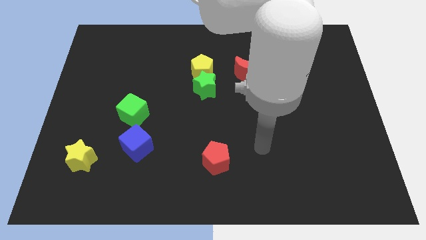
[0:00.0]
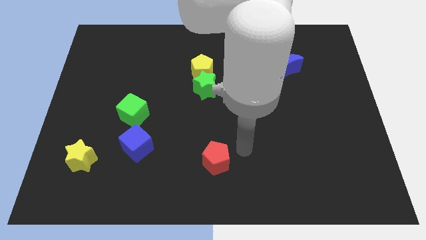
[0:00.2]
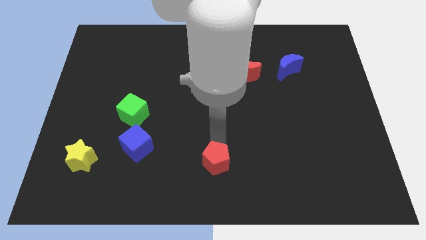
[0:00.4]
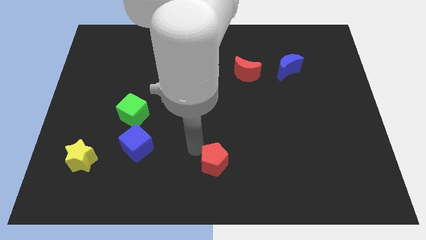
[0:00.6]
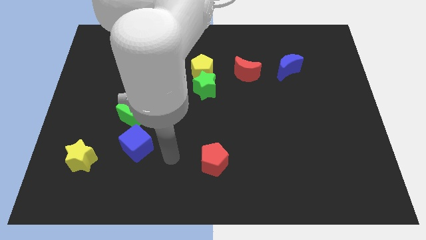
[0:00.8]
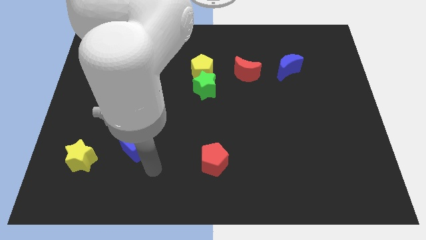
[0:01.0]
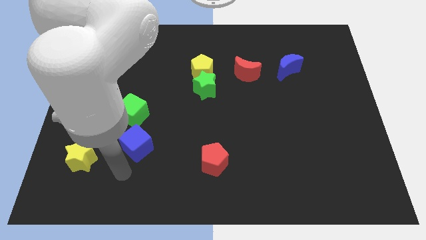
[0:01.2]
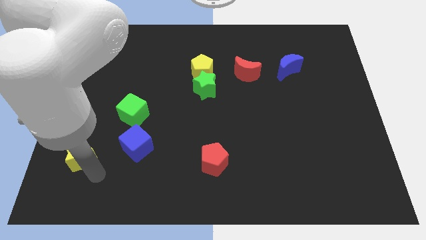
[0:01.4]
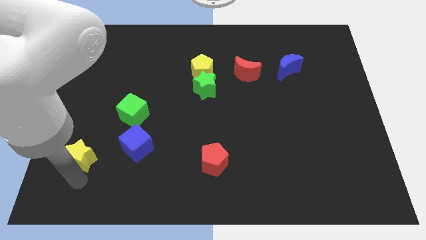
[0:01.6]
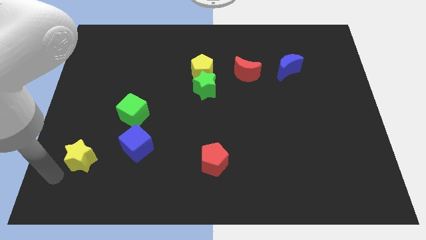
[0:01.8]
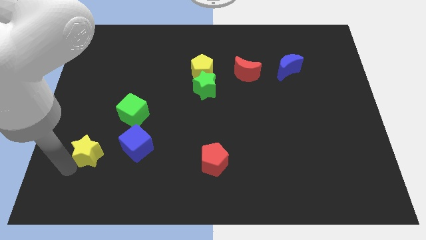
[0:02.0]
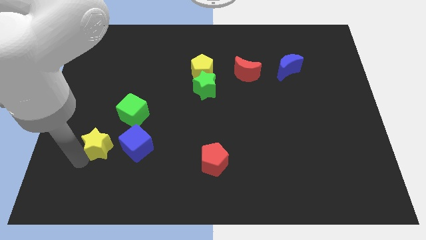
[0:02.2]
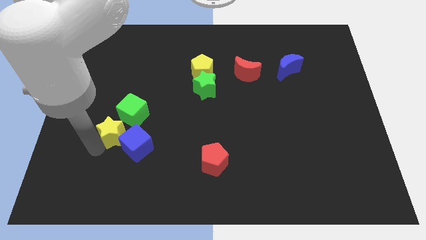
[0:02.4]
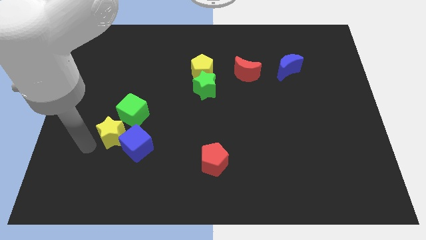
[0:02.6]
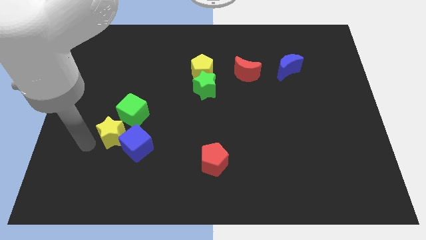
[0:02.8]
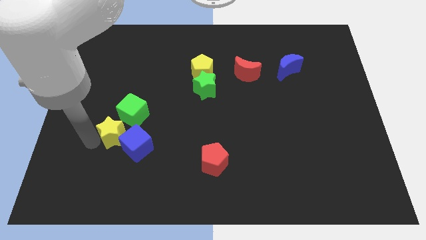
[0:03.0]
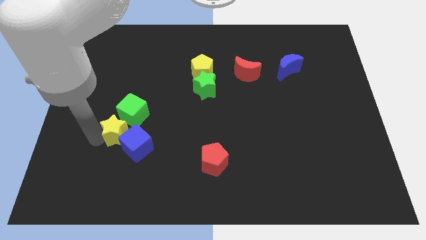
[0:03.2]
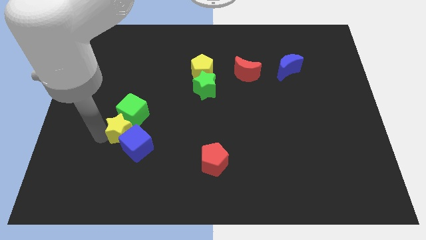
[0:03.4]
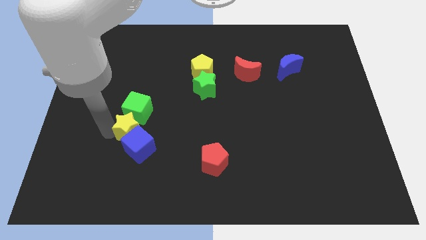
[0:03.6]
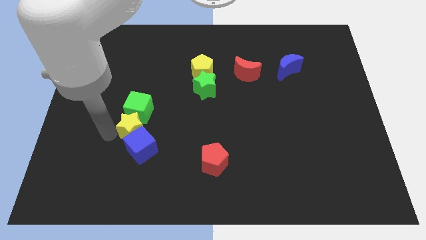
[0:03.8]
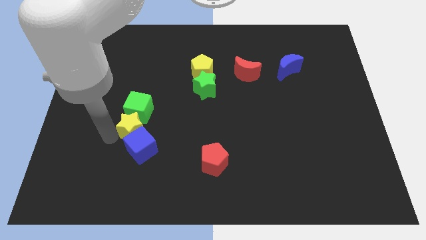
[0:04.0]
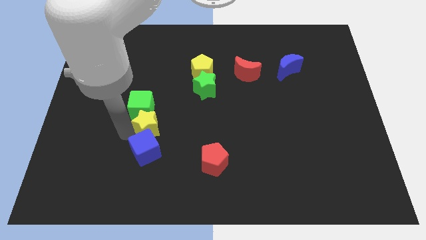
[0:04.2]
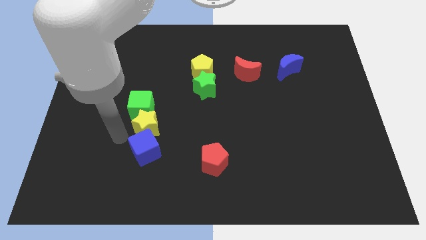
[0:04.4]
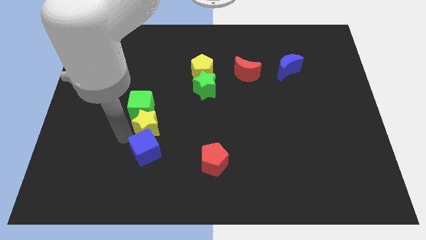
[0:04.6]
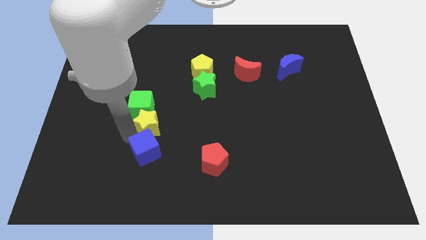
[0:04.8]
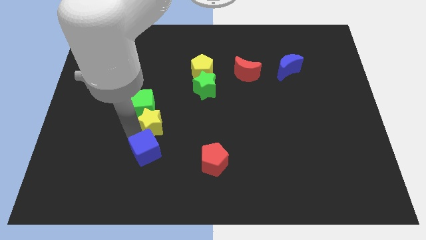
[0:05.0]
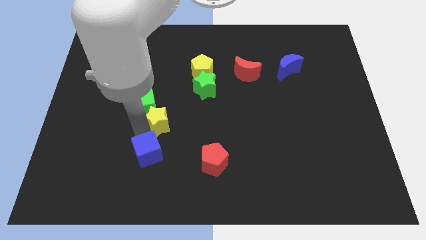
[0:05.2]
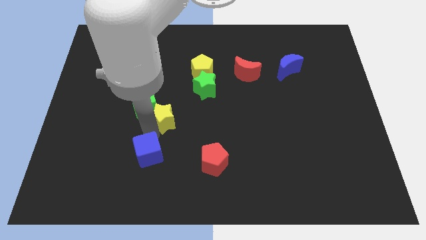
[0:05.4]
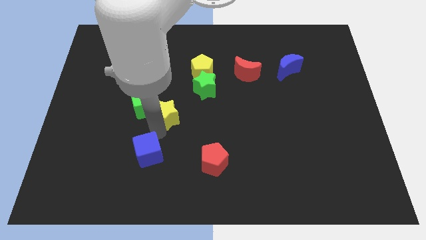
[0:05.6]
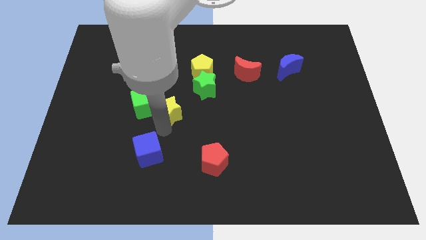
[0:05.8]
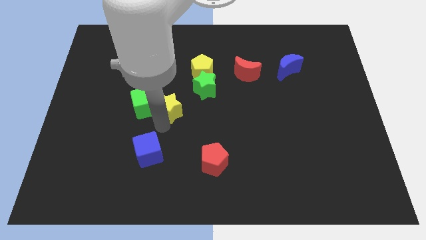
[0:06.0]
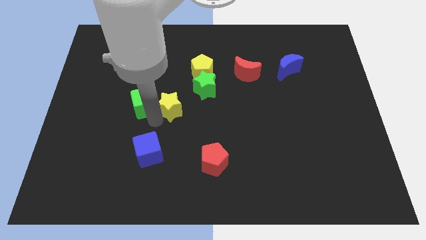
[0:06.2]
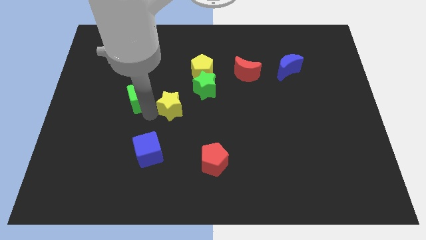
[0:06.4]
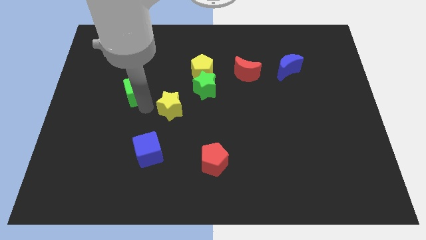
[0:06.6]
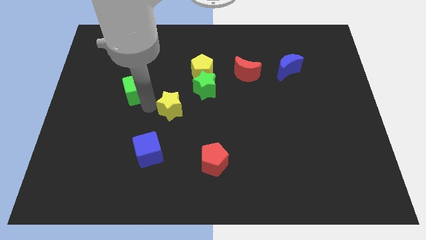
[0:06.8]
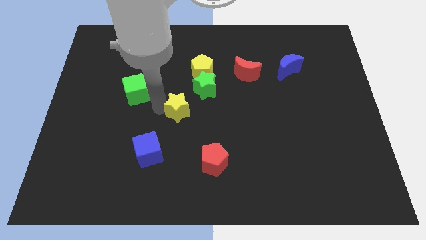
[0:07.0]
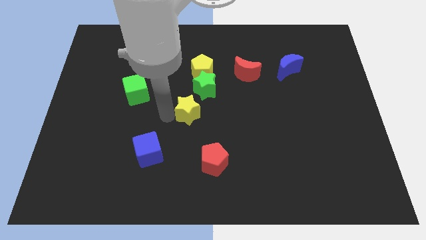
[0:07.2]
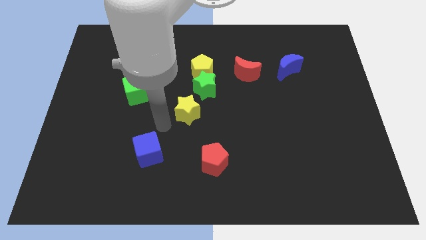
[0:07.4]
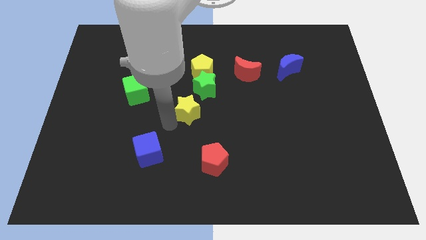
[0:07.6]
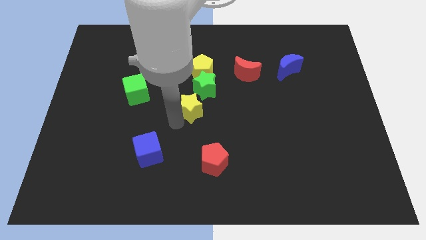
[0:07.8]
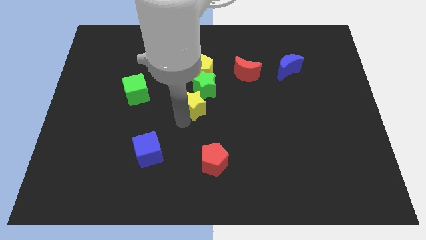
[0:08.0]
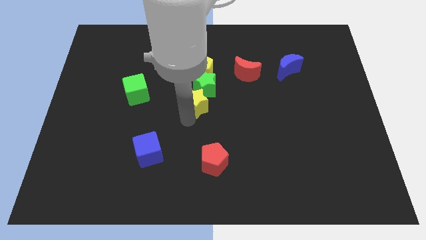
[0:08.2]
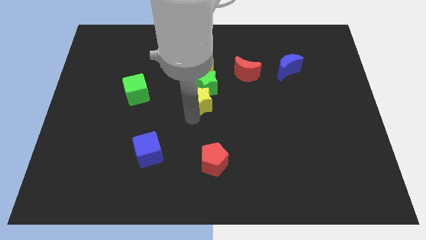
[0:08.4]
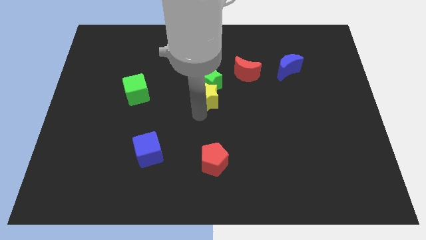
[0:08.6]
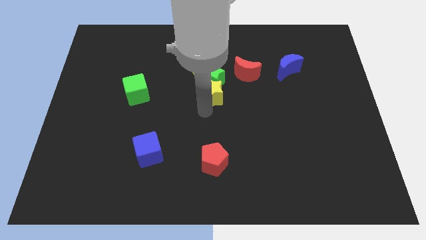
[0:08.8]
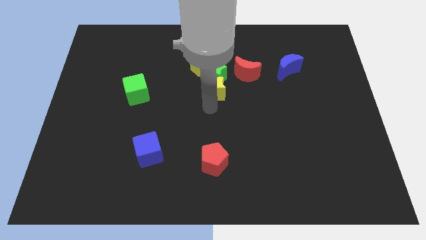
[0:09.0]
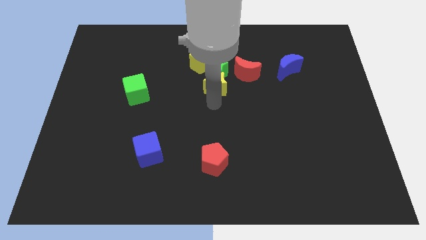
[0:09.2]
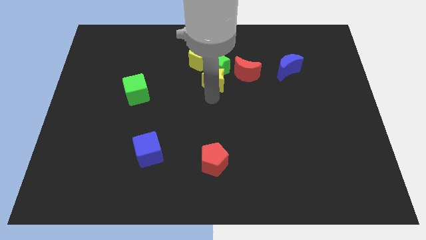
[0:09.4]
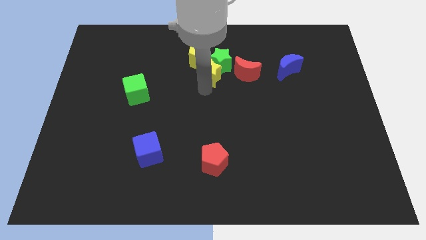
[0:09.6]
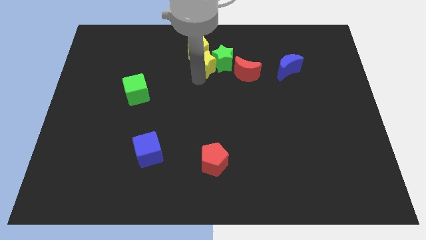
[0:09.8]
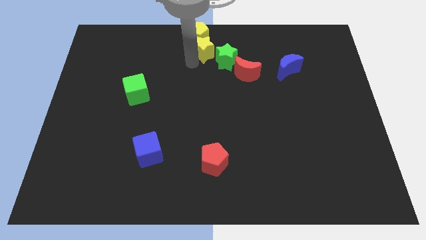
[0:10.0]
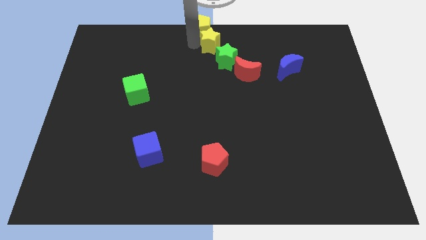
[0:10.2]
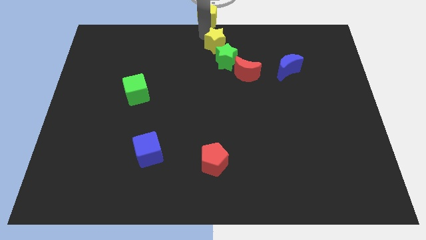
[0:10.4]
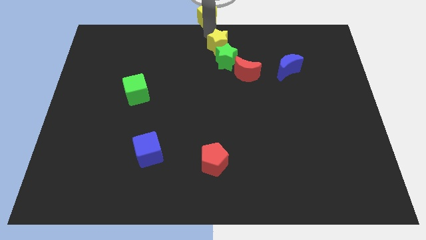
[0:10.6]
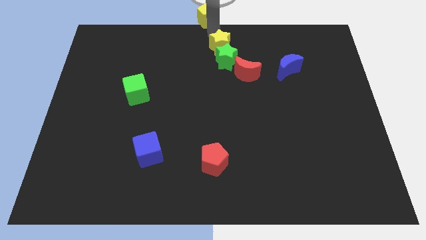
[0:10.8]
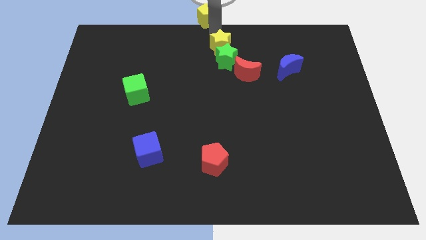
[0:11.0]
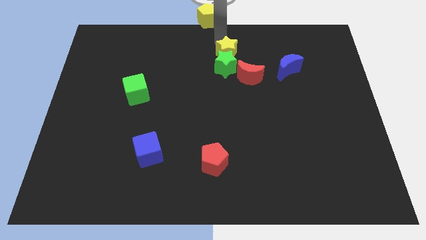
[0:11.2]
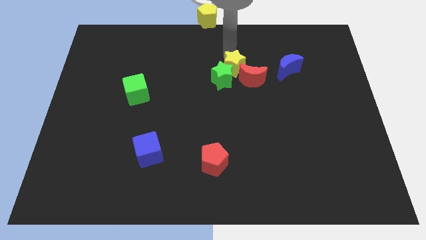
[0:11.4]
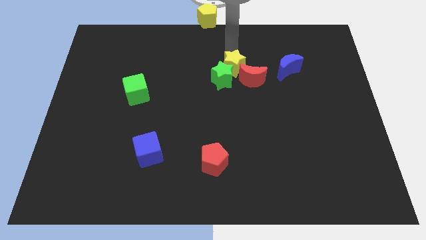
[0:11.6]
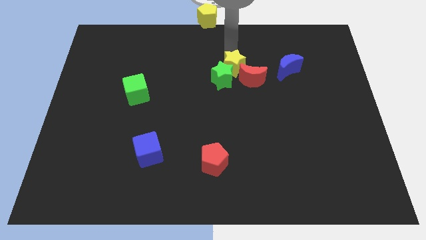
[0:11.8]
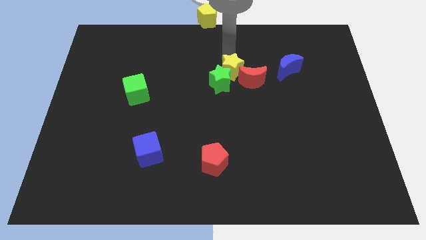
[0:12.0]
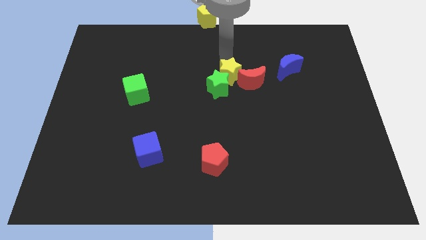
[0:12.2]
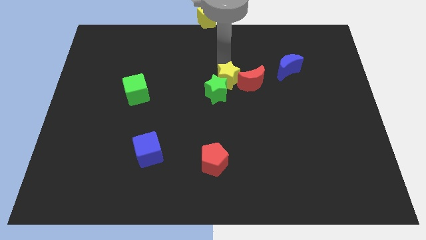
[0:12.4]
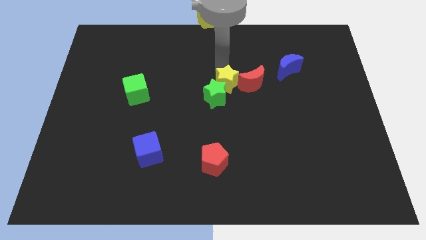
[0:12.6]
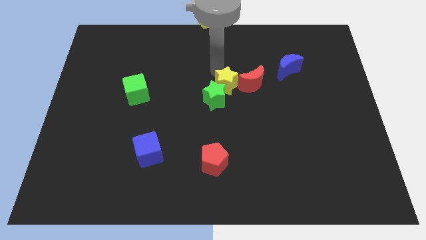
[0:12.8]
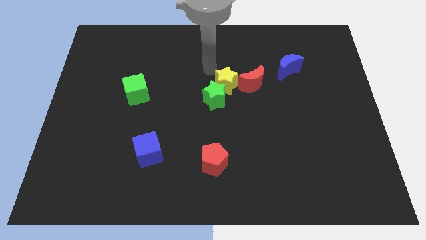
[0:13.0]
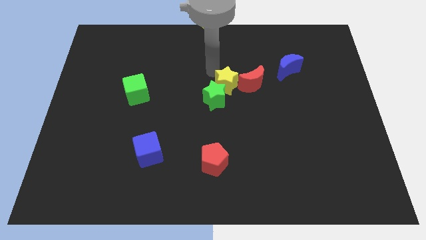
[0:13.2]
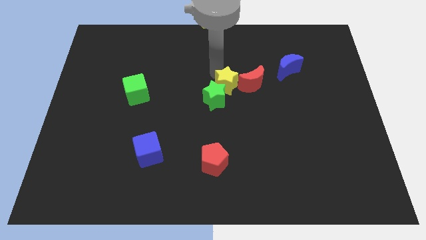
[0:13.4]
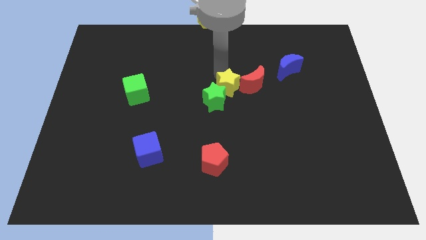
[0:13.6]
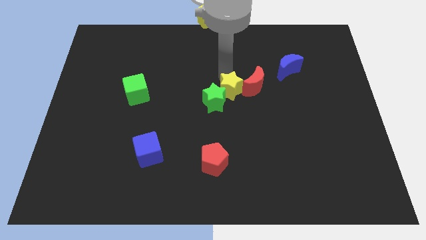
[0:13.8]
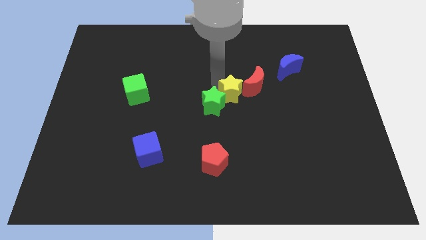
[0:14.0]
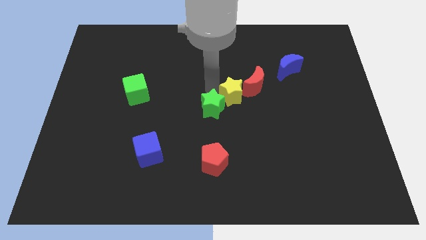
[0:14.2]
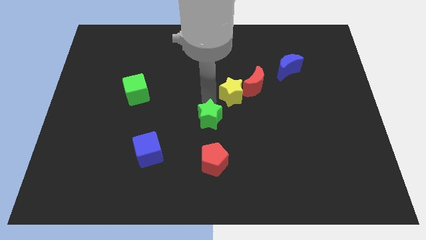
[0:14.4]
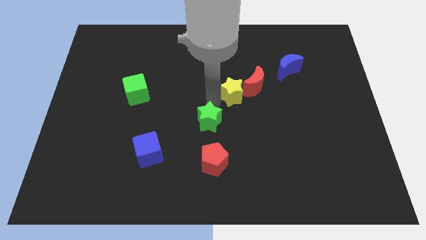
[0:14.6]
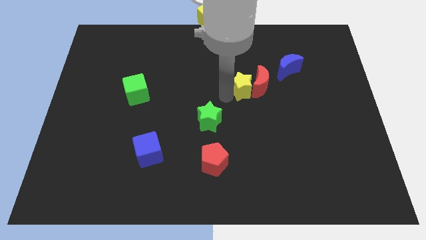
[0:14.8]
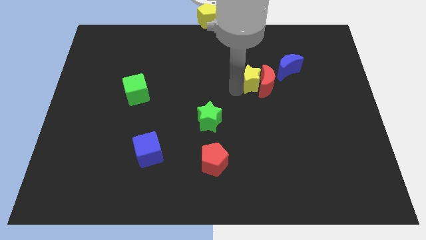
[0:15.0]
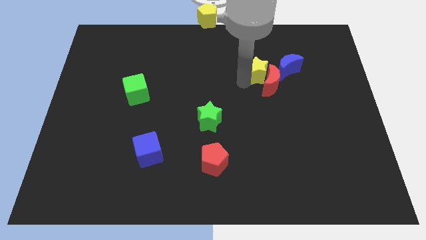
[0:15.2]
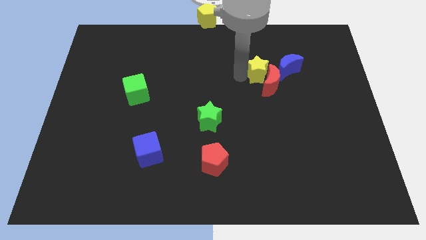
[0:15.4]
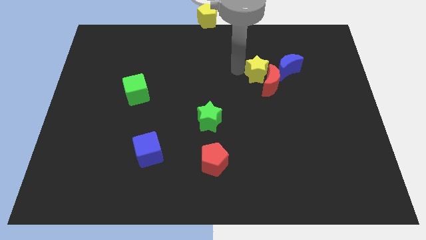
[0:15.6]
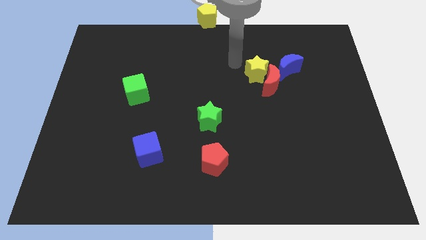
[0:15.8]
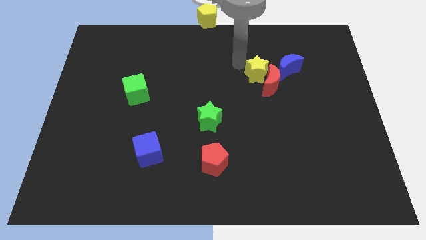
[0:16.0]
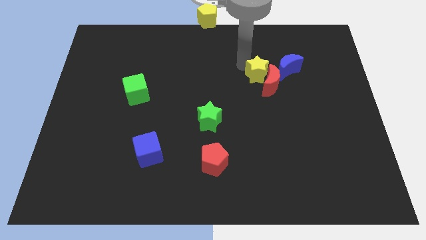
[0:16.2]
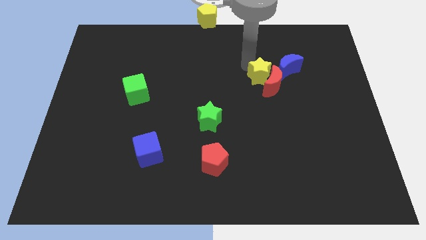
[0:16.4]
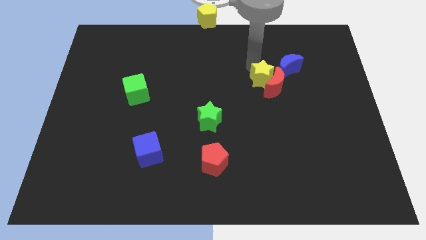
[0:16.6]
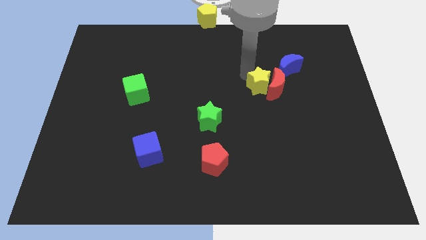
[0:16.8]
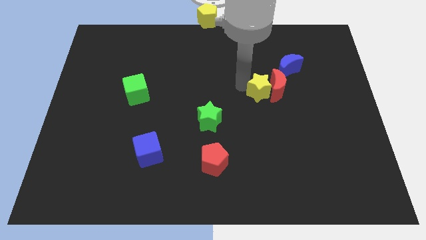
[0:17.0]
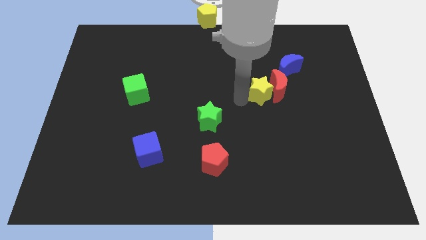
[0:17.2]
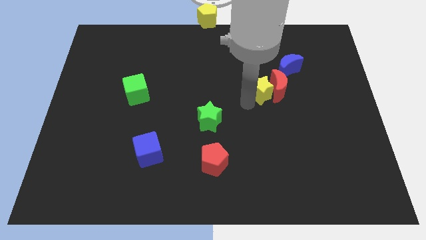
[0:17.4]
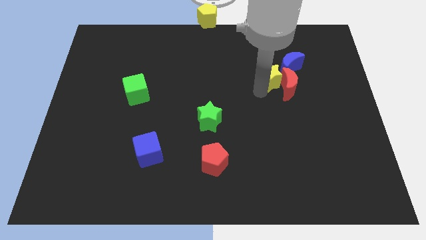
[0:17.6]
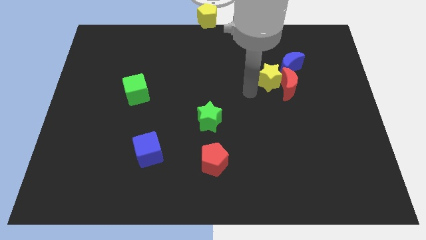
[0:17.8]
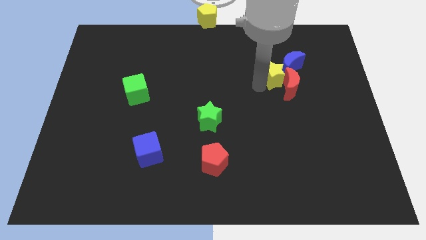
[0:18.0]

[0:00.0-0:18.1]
push the yellow star towards the blue moon
